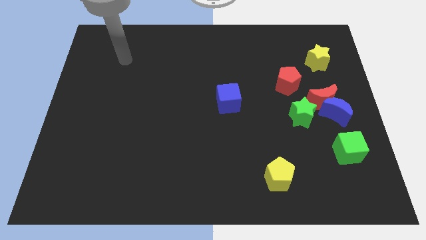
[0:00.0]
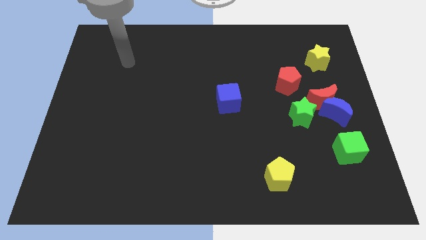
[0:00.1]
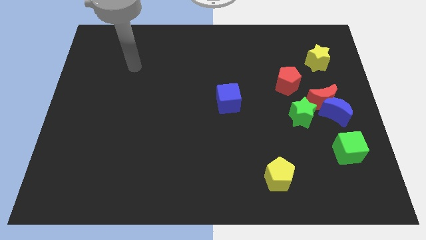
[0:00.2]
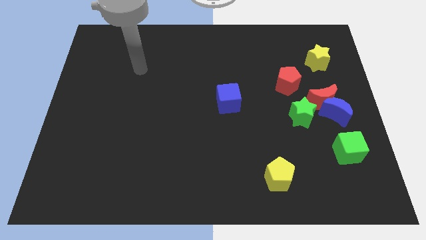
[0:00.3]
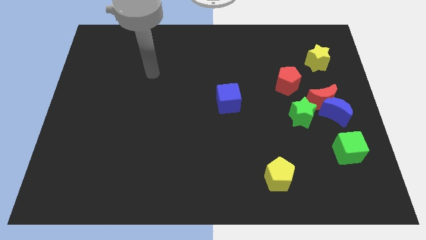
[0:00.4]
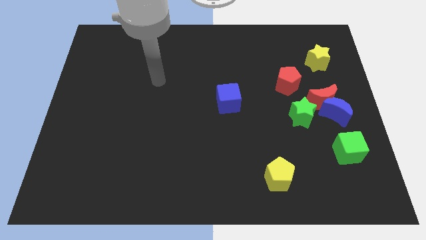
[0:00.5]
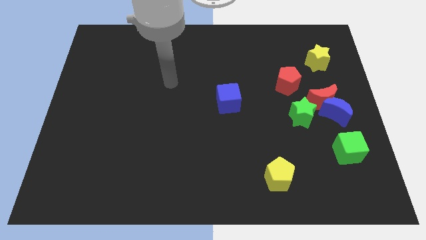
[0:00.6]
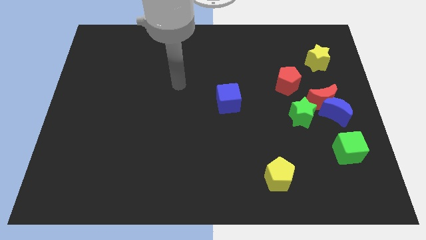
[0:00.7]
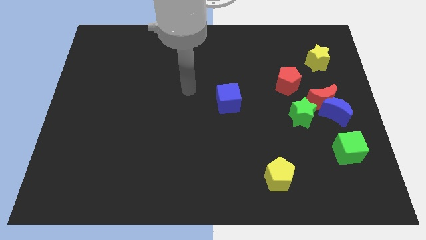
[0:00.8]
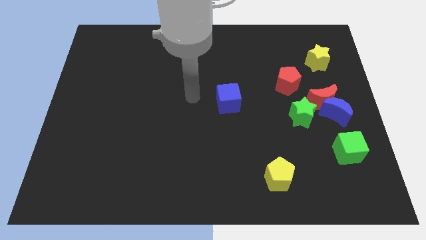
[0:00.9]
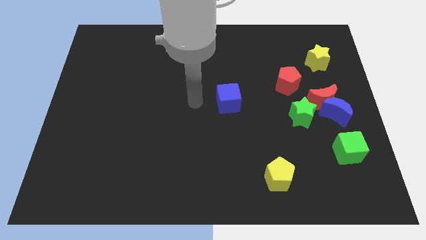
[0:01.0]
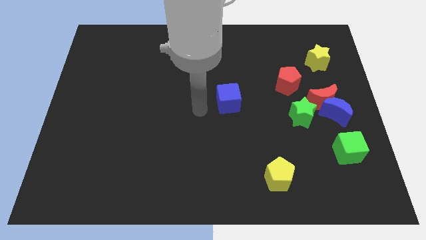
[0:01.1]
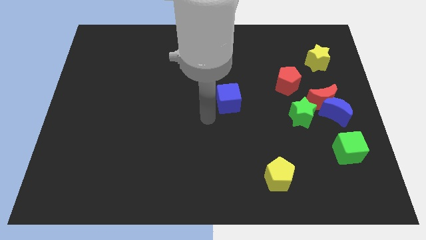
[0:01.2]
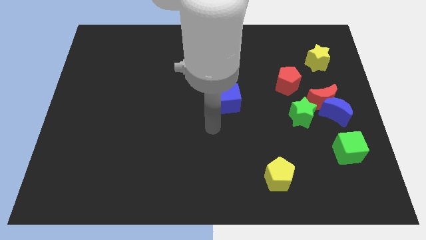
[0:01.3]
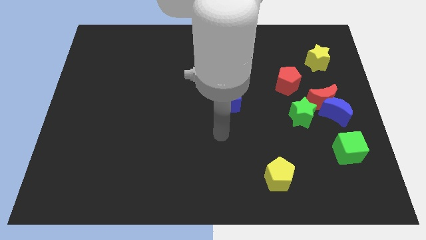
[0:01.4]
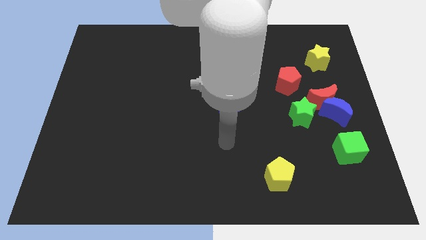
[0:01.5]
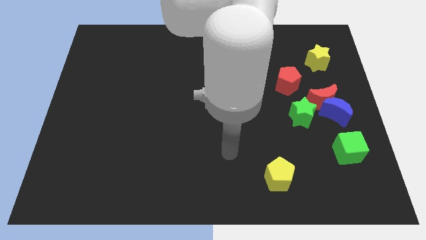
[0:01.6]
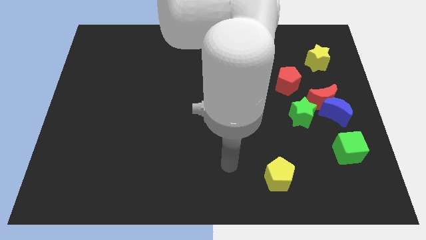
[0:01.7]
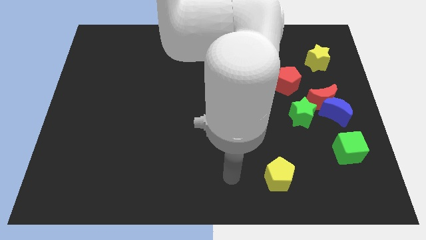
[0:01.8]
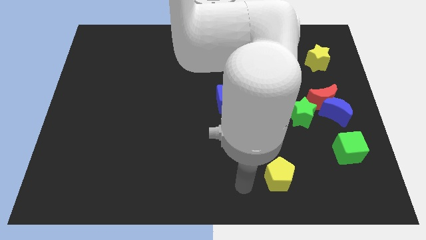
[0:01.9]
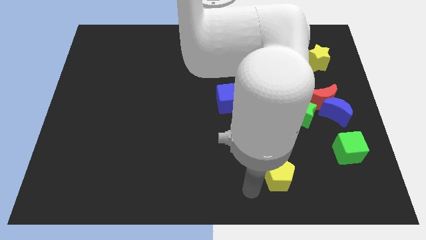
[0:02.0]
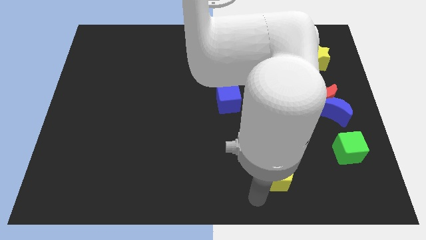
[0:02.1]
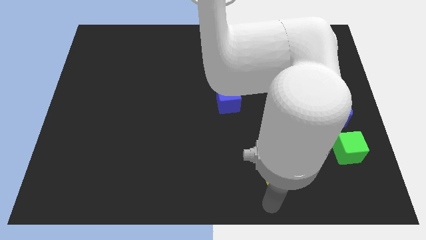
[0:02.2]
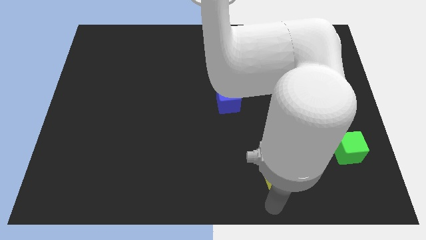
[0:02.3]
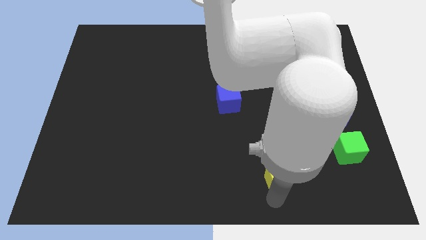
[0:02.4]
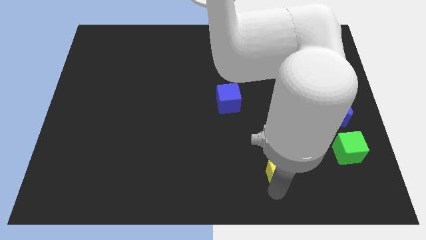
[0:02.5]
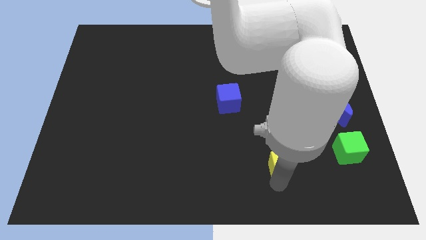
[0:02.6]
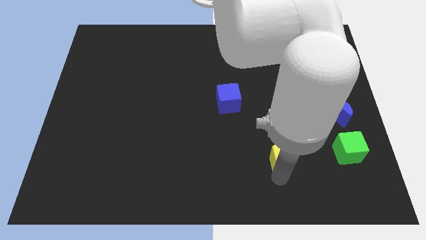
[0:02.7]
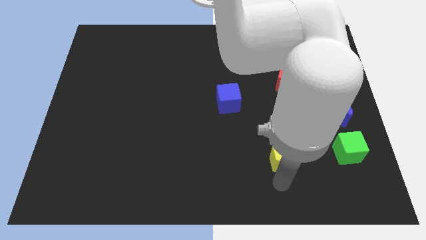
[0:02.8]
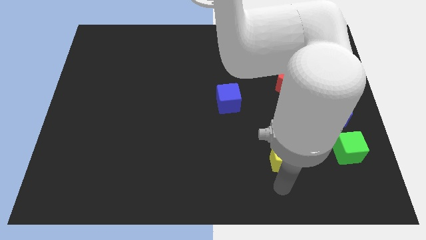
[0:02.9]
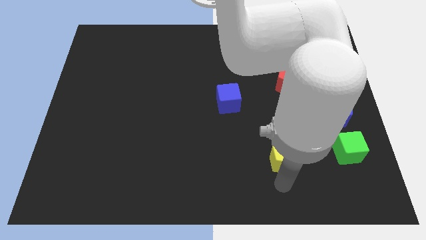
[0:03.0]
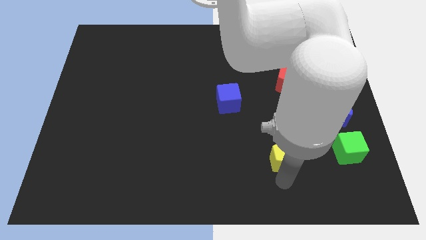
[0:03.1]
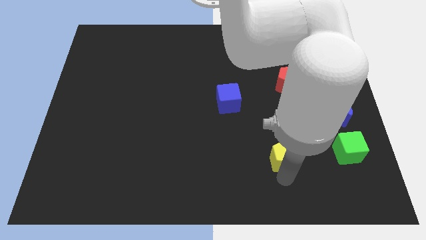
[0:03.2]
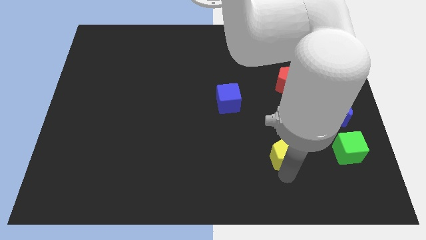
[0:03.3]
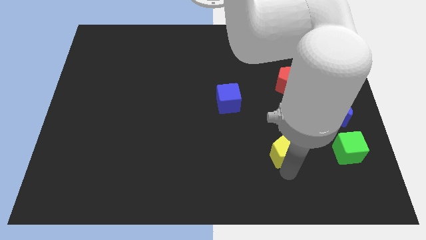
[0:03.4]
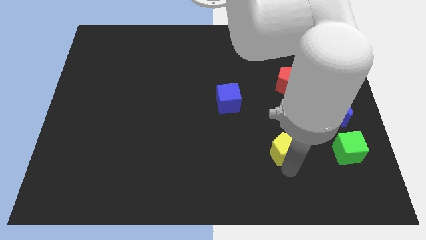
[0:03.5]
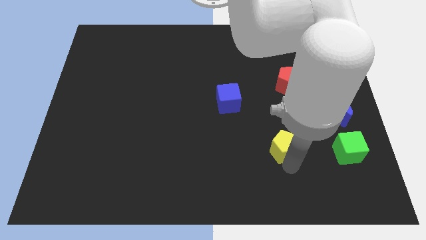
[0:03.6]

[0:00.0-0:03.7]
slide the yellow pentagon a bit up

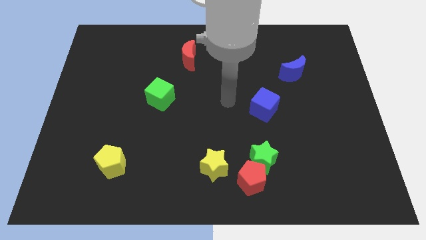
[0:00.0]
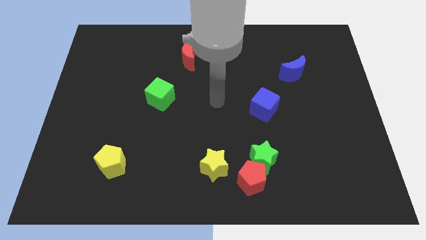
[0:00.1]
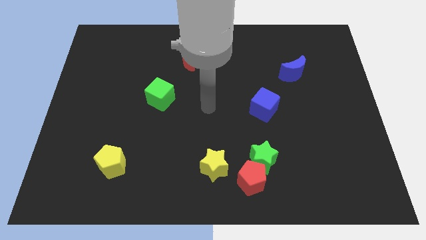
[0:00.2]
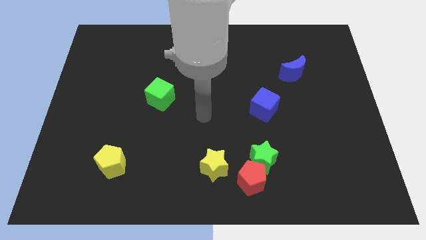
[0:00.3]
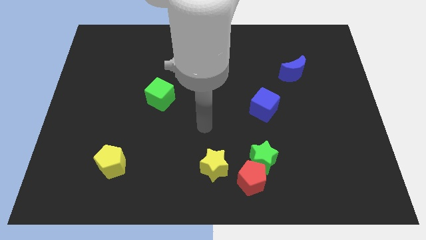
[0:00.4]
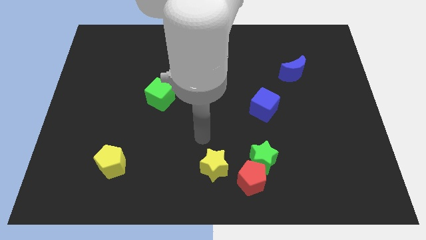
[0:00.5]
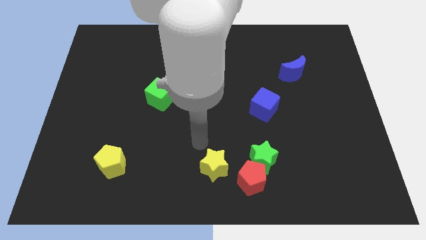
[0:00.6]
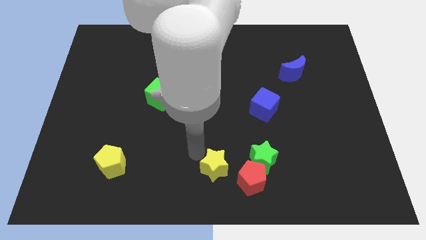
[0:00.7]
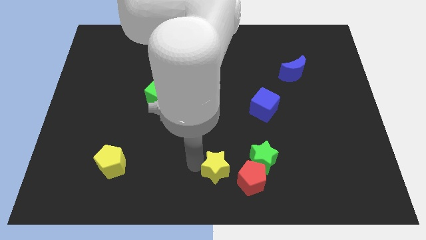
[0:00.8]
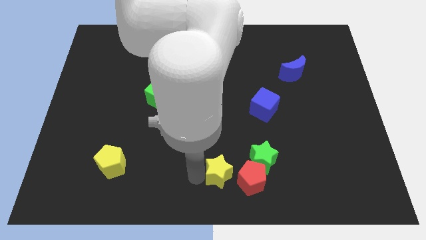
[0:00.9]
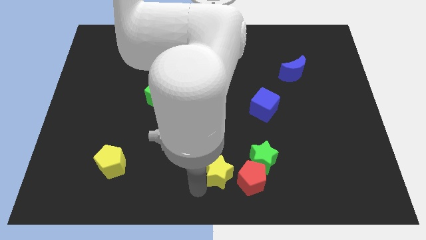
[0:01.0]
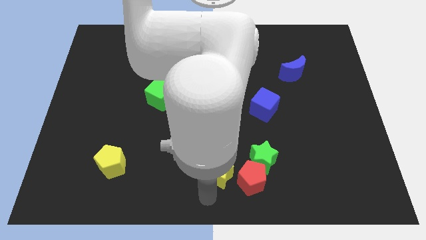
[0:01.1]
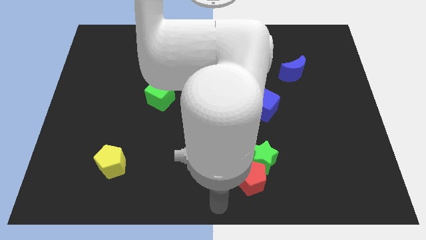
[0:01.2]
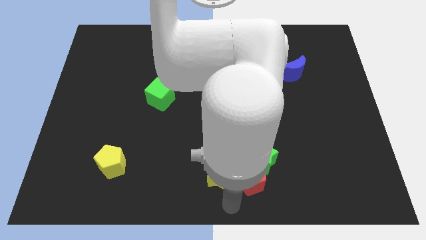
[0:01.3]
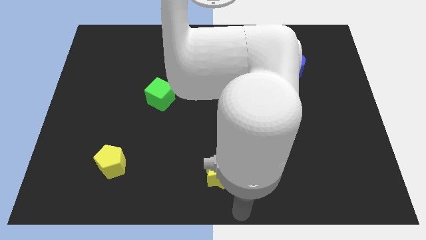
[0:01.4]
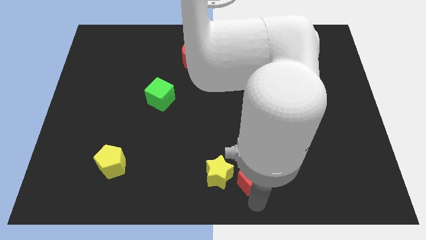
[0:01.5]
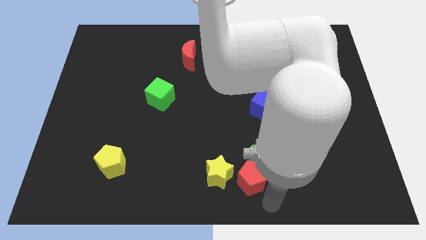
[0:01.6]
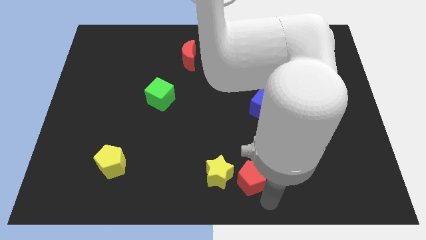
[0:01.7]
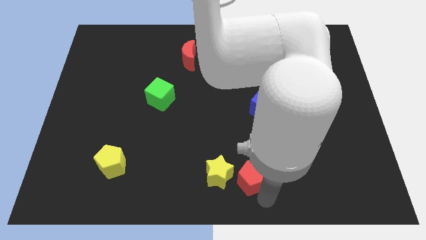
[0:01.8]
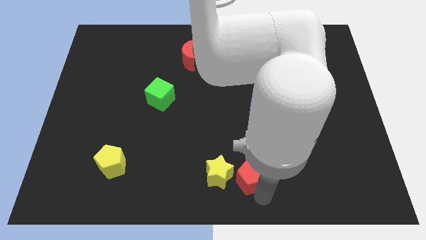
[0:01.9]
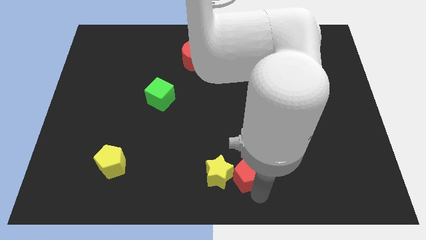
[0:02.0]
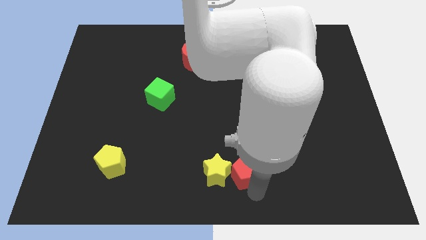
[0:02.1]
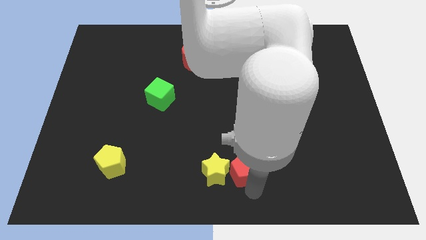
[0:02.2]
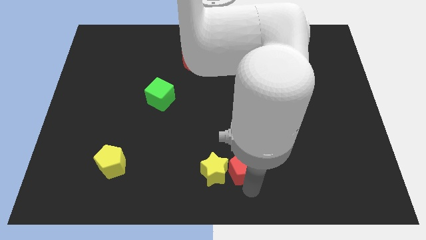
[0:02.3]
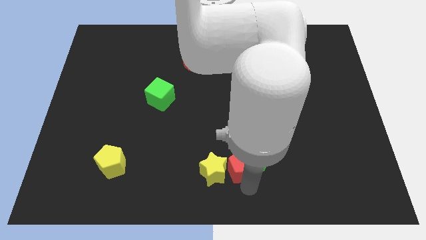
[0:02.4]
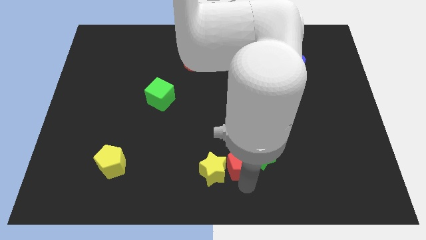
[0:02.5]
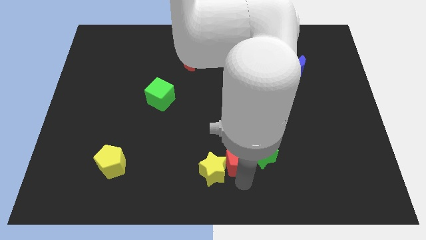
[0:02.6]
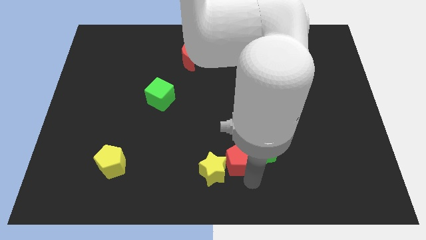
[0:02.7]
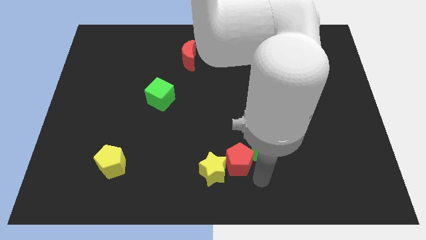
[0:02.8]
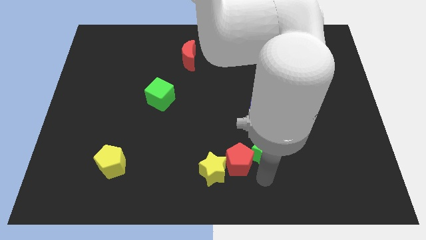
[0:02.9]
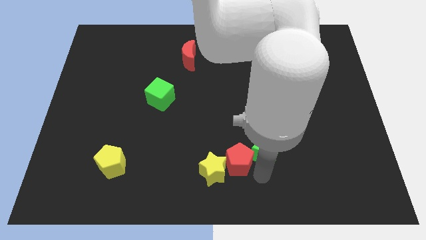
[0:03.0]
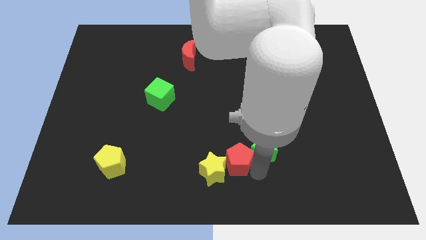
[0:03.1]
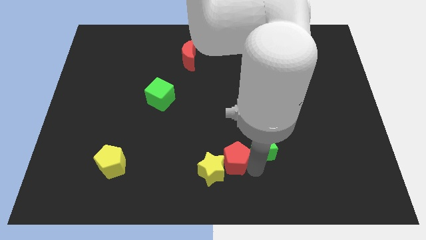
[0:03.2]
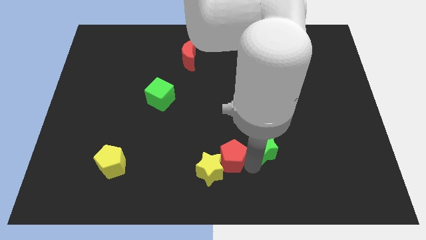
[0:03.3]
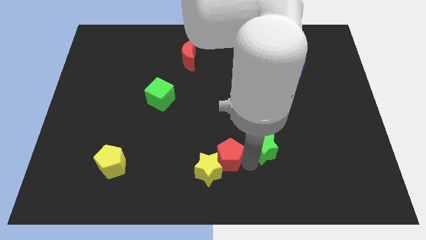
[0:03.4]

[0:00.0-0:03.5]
slide the red pentagon a little bit up and then to the left

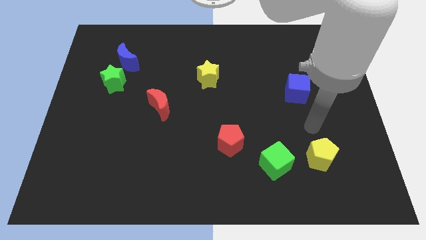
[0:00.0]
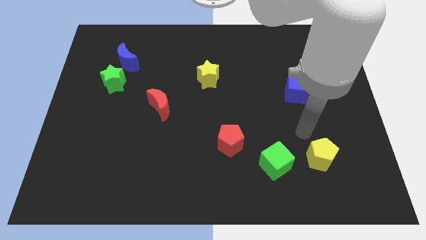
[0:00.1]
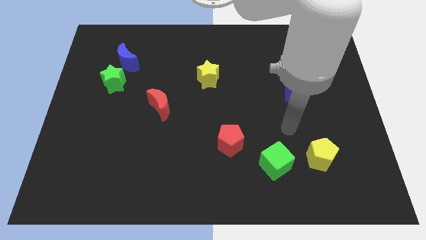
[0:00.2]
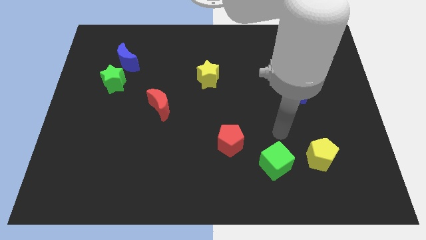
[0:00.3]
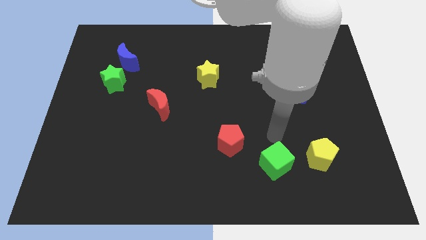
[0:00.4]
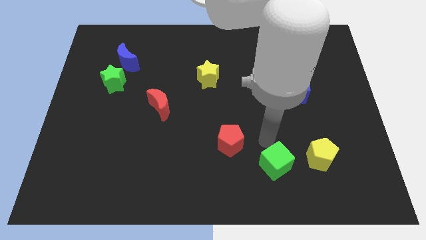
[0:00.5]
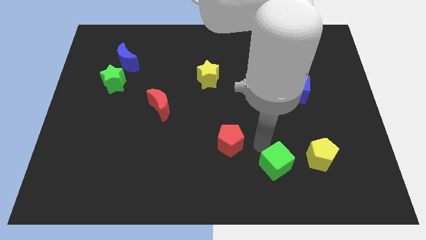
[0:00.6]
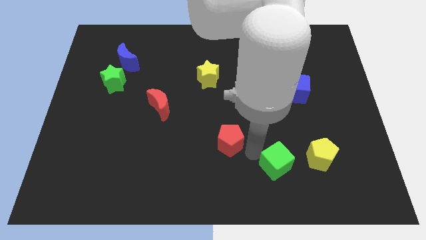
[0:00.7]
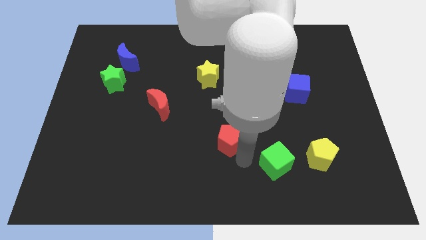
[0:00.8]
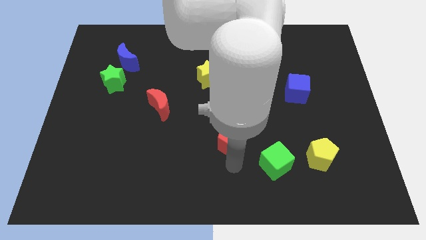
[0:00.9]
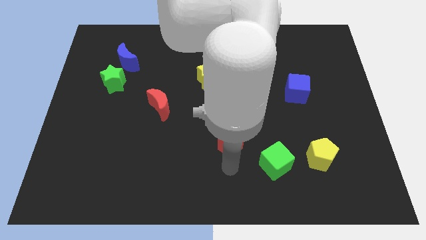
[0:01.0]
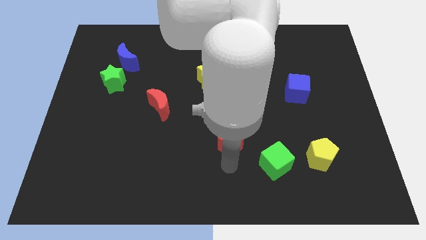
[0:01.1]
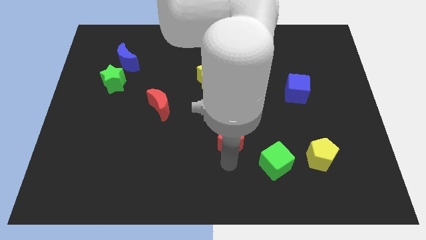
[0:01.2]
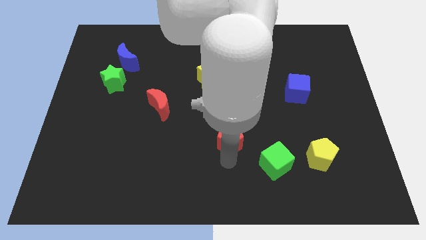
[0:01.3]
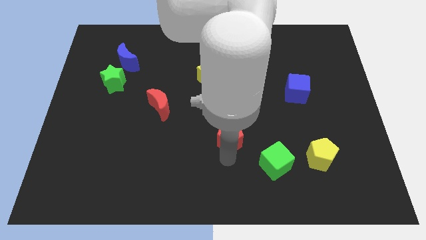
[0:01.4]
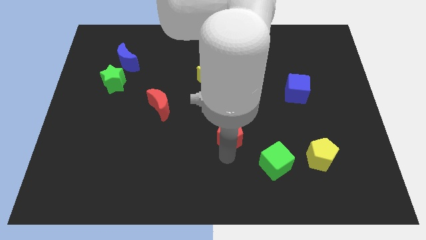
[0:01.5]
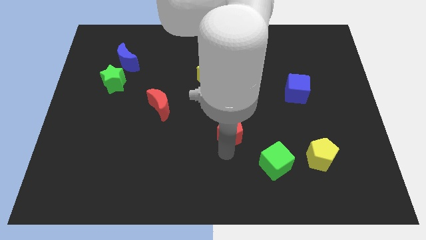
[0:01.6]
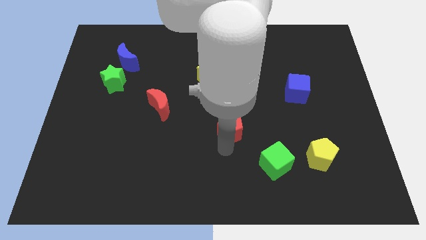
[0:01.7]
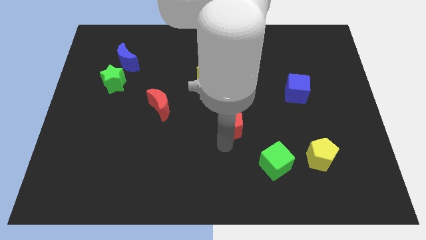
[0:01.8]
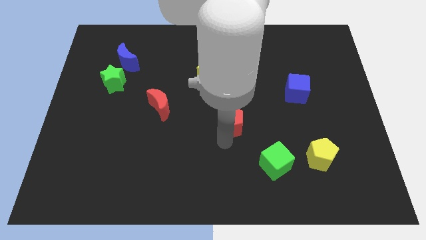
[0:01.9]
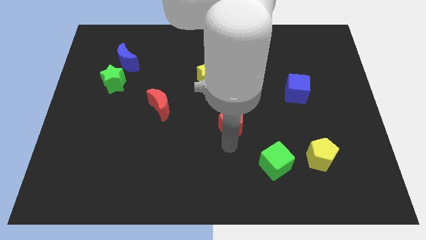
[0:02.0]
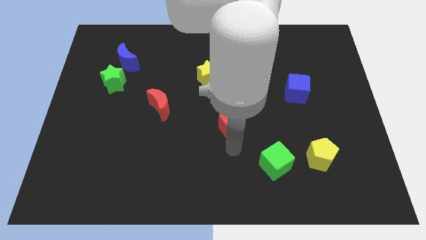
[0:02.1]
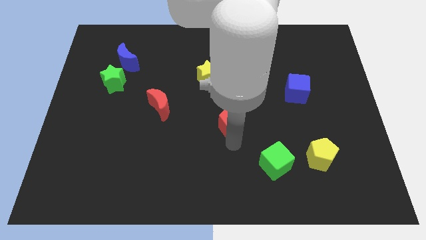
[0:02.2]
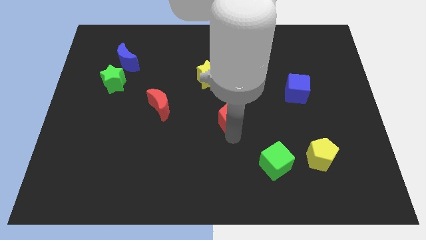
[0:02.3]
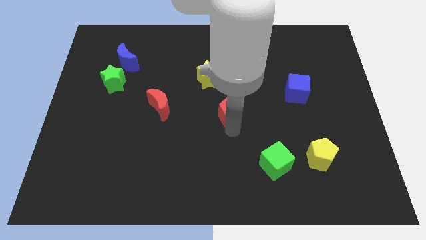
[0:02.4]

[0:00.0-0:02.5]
slide the red pentagon up a little
